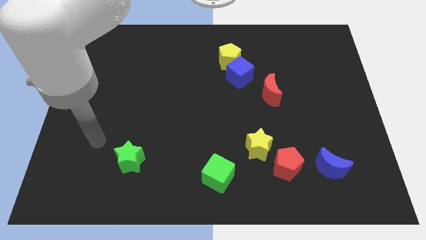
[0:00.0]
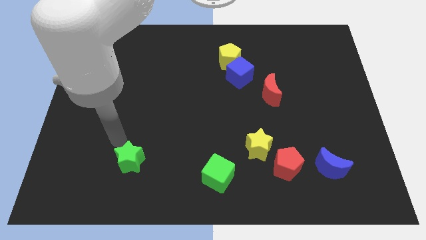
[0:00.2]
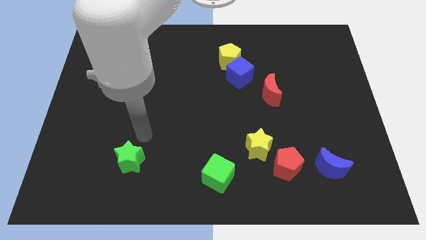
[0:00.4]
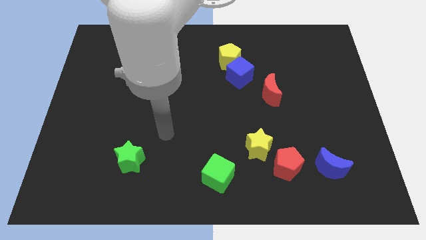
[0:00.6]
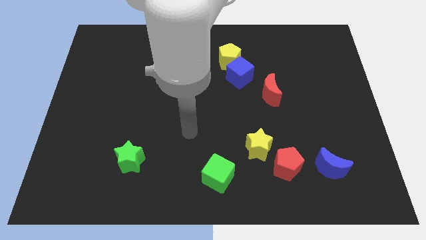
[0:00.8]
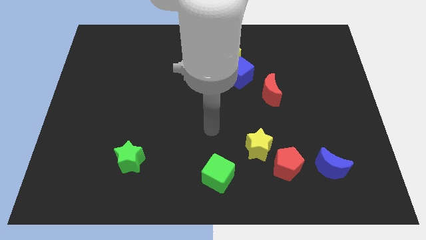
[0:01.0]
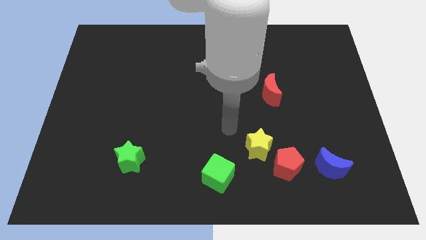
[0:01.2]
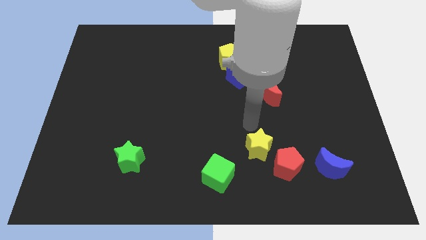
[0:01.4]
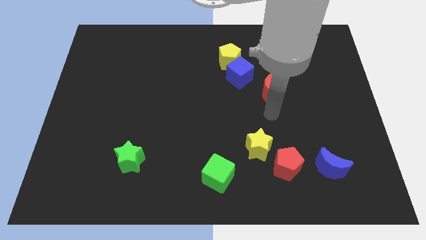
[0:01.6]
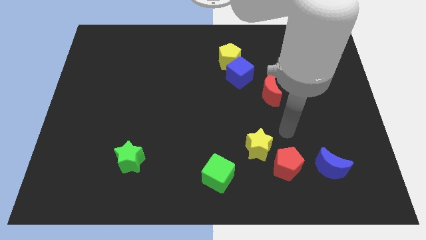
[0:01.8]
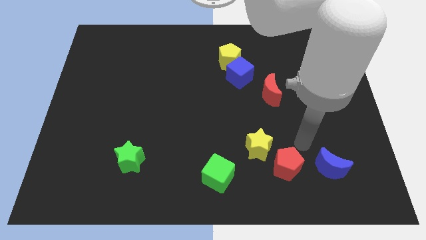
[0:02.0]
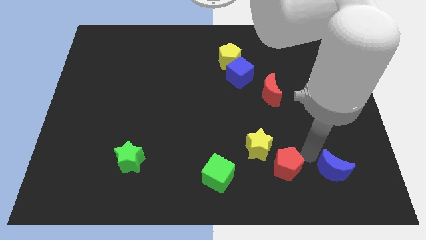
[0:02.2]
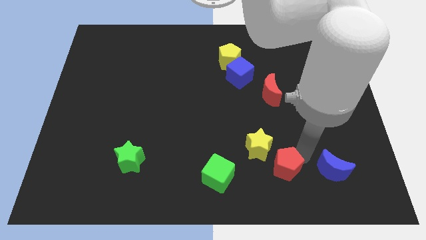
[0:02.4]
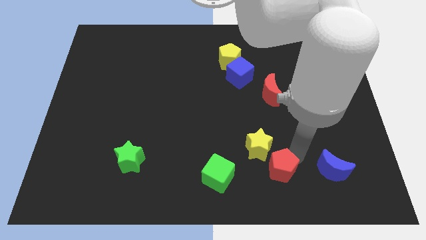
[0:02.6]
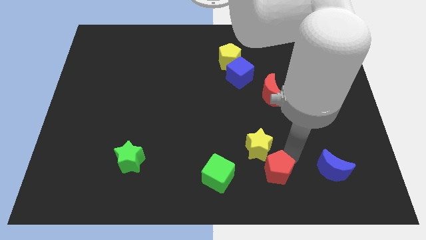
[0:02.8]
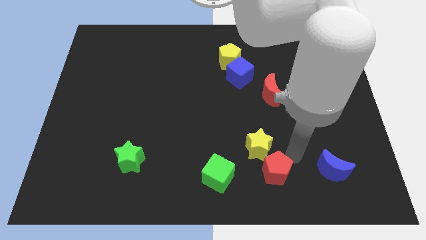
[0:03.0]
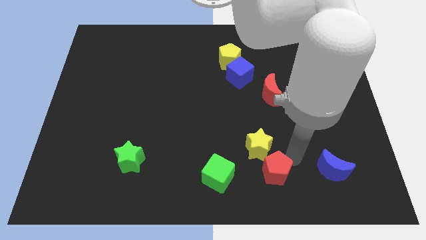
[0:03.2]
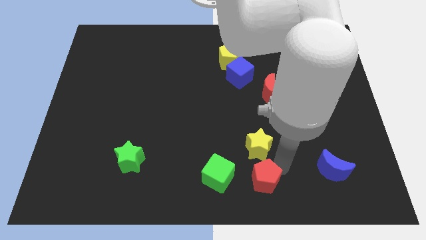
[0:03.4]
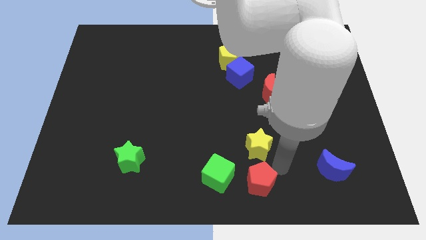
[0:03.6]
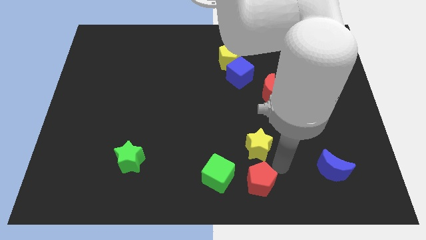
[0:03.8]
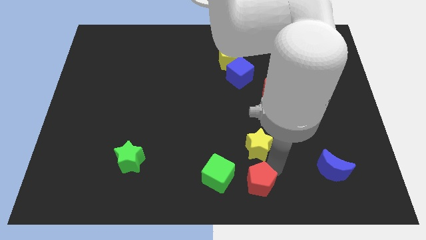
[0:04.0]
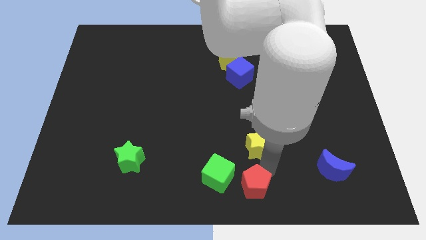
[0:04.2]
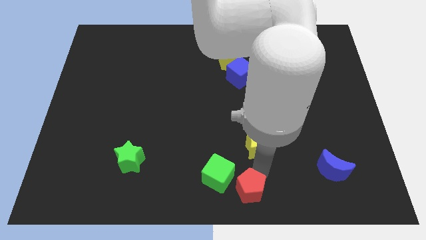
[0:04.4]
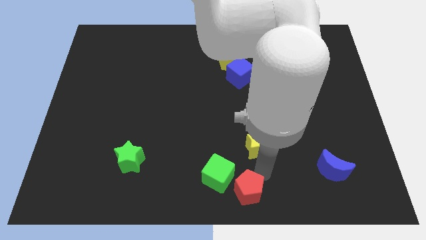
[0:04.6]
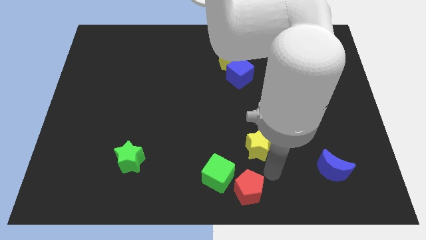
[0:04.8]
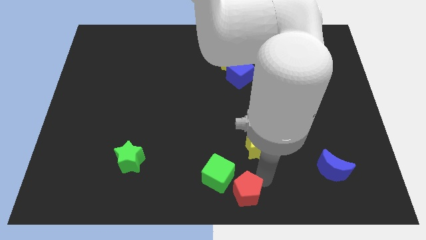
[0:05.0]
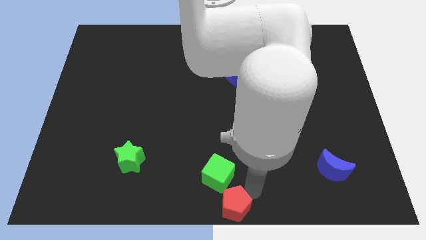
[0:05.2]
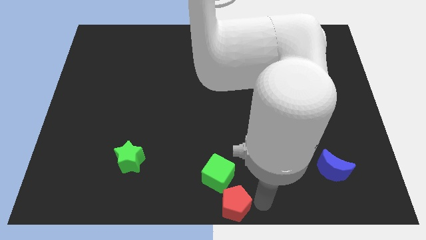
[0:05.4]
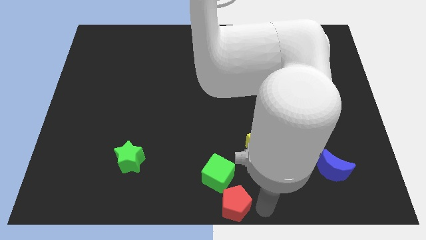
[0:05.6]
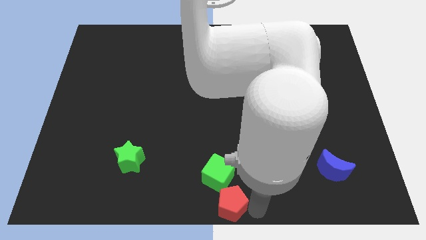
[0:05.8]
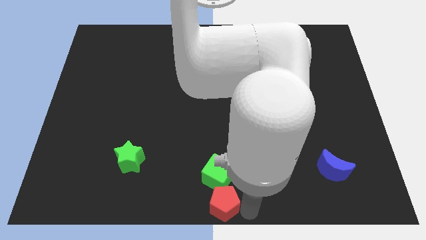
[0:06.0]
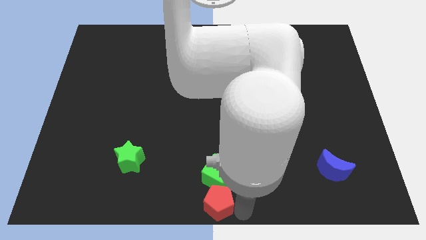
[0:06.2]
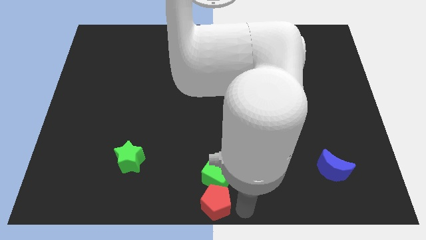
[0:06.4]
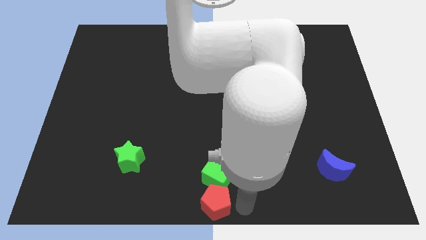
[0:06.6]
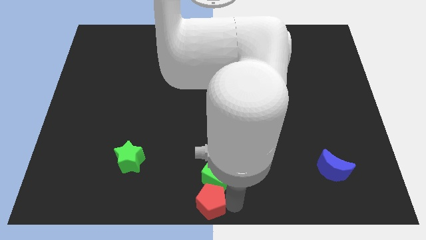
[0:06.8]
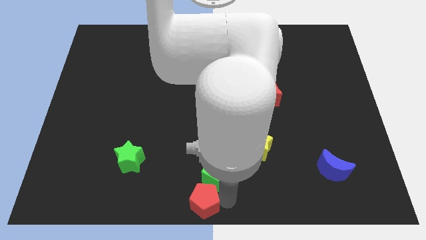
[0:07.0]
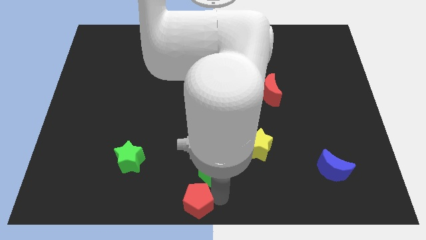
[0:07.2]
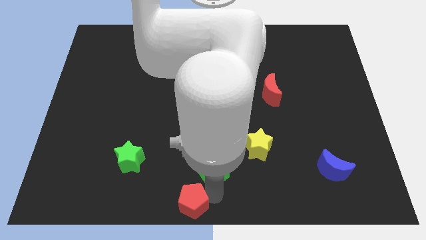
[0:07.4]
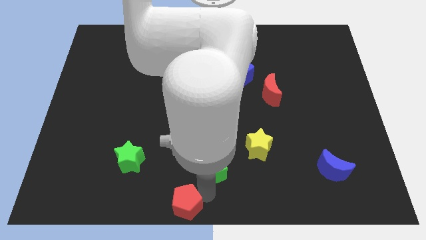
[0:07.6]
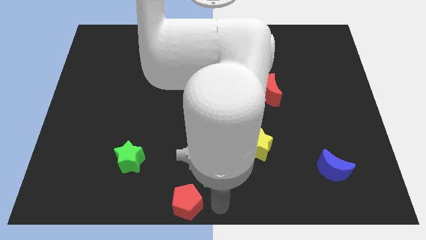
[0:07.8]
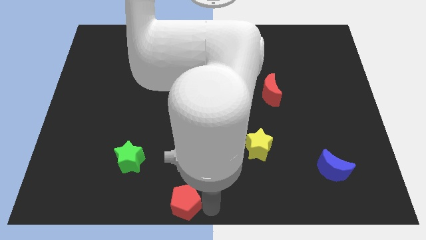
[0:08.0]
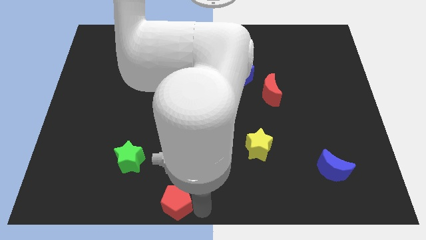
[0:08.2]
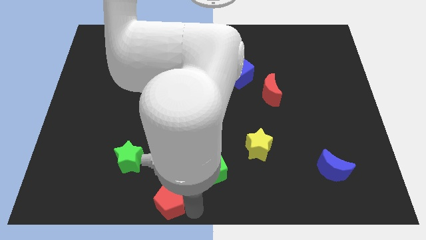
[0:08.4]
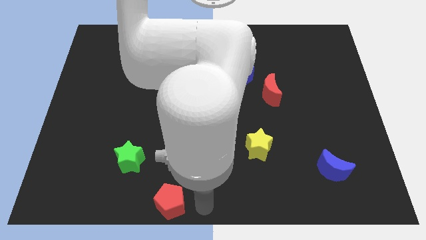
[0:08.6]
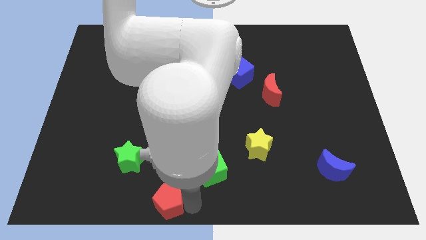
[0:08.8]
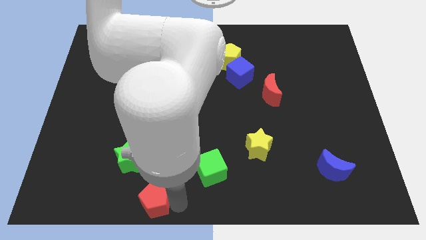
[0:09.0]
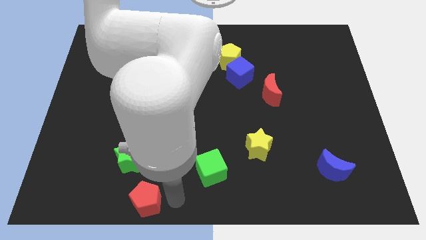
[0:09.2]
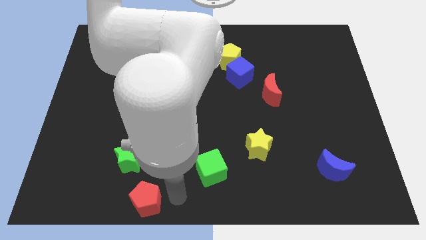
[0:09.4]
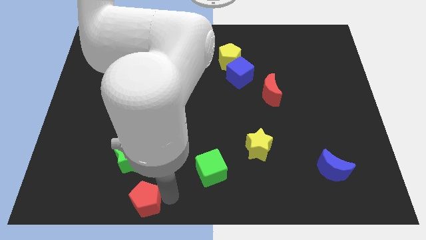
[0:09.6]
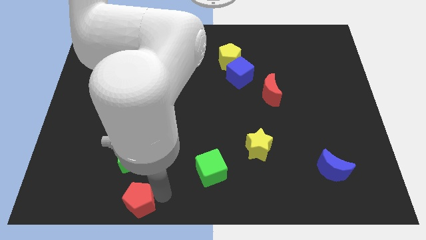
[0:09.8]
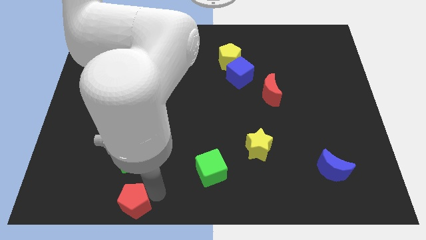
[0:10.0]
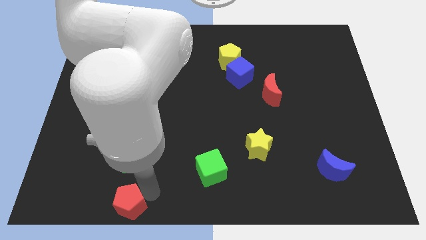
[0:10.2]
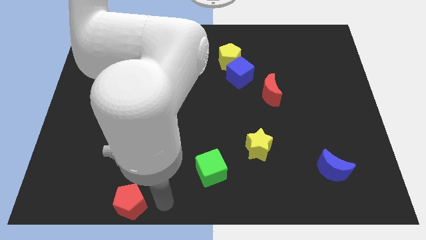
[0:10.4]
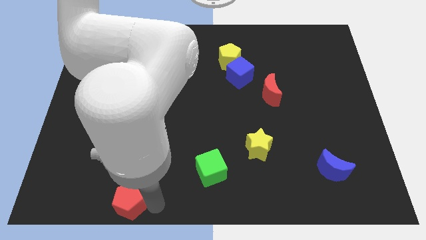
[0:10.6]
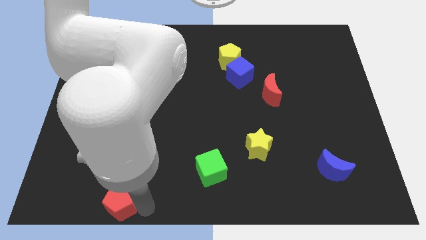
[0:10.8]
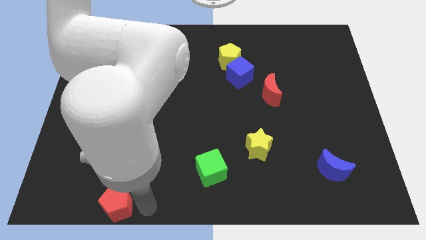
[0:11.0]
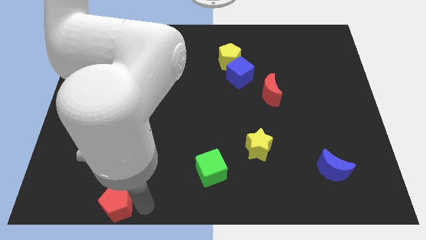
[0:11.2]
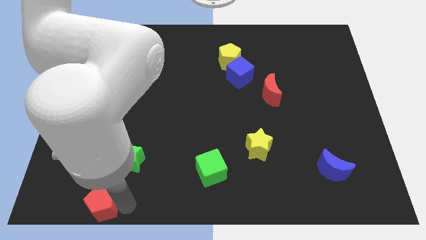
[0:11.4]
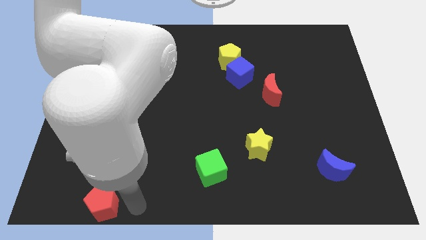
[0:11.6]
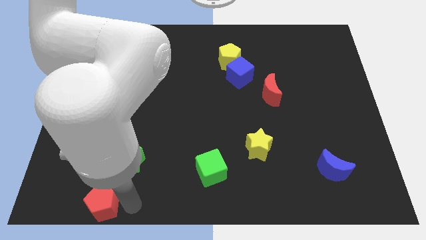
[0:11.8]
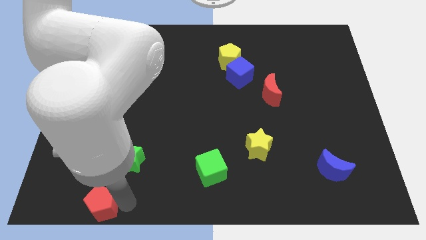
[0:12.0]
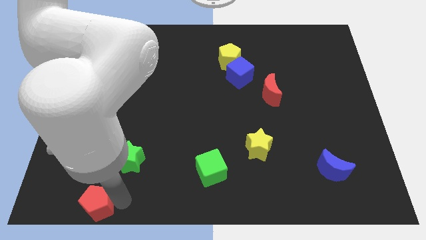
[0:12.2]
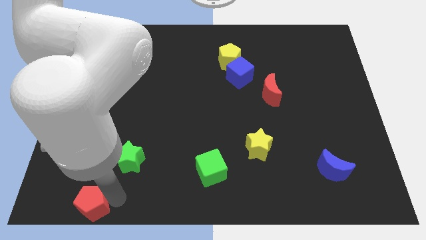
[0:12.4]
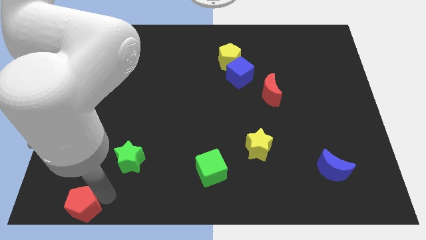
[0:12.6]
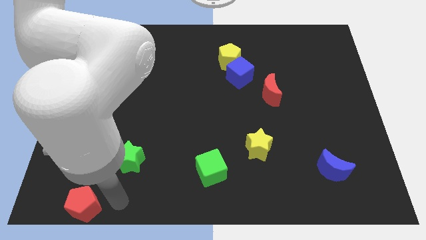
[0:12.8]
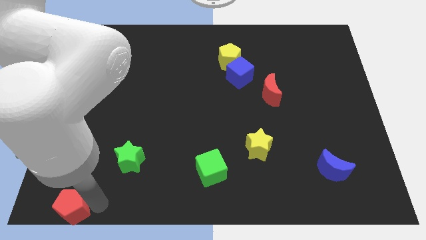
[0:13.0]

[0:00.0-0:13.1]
push the red pentagon to the bottom left of the board

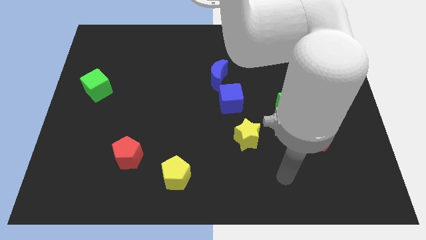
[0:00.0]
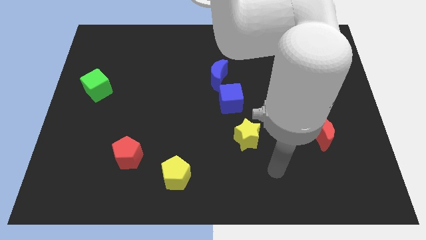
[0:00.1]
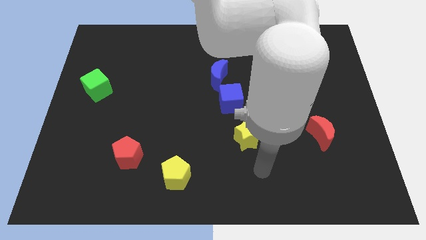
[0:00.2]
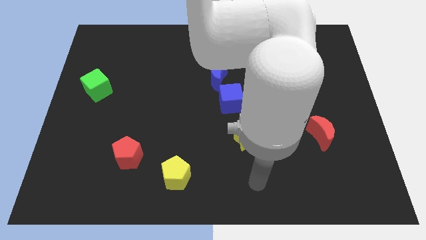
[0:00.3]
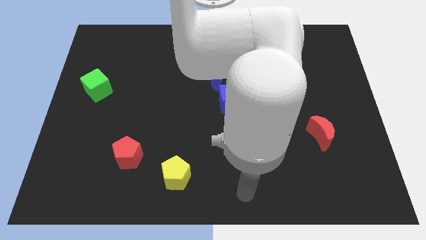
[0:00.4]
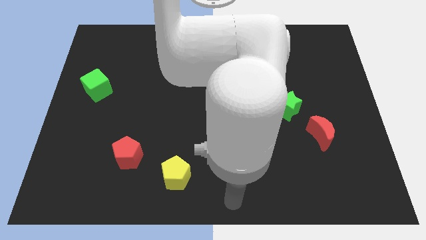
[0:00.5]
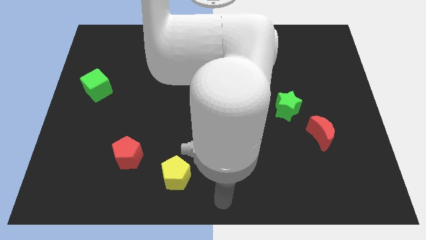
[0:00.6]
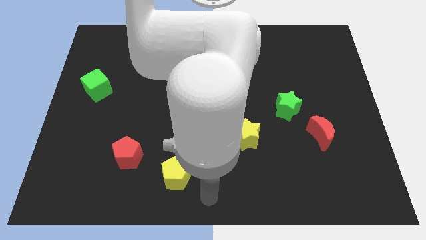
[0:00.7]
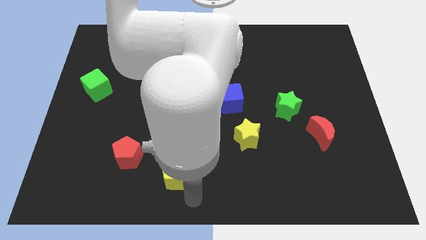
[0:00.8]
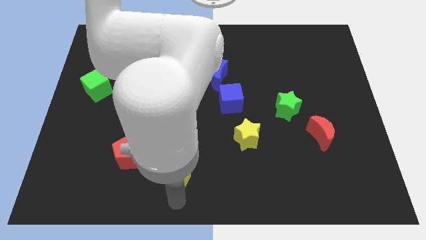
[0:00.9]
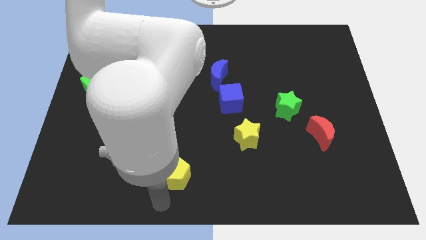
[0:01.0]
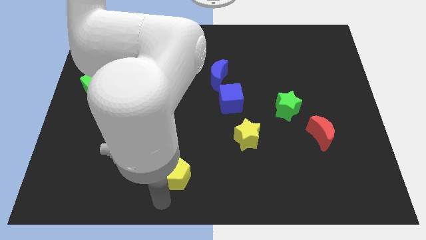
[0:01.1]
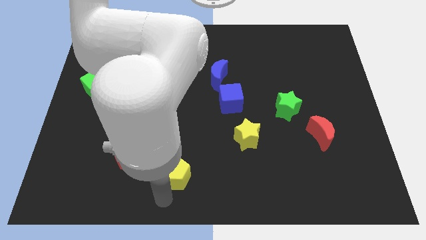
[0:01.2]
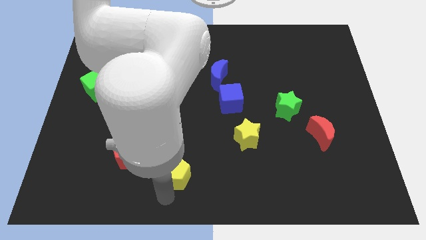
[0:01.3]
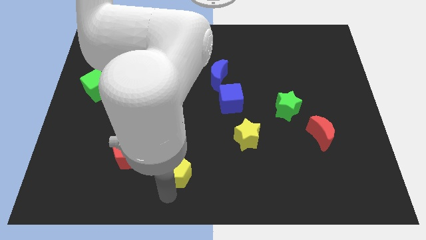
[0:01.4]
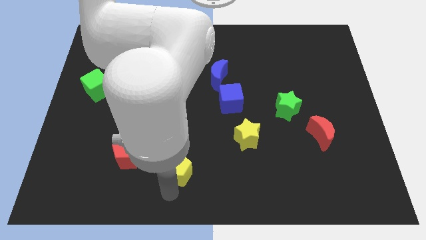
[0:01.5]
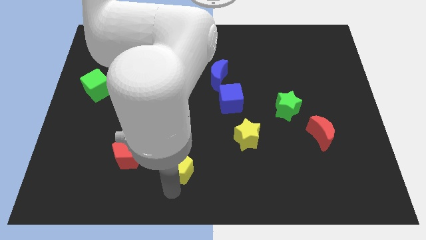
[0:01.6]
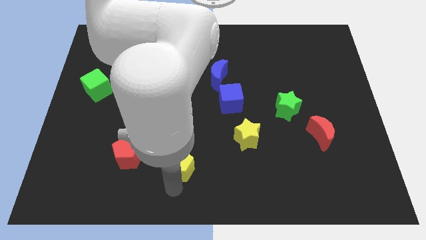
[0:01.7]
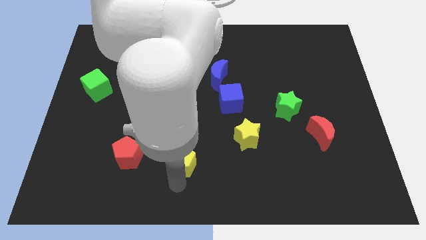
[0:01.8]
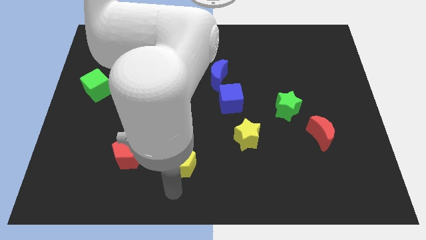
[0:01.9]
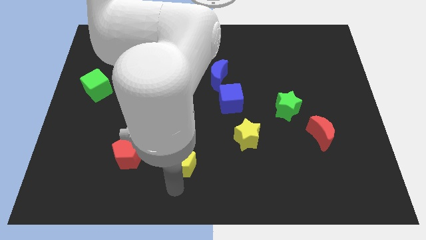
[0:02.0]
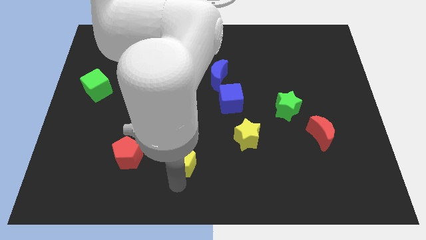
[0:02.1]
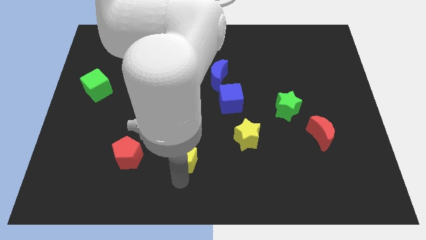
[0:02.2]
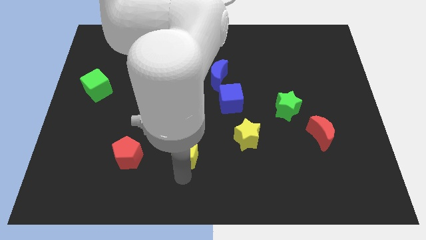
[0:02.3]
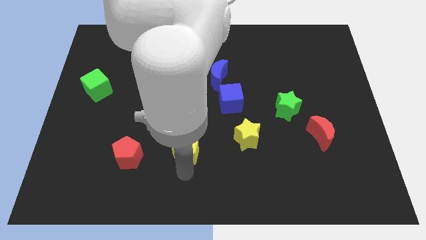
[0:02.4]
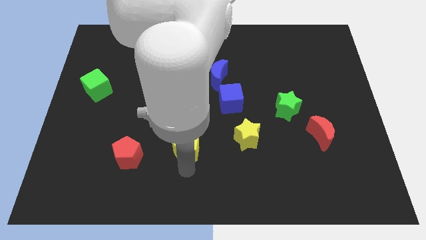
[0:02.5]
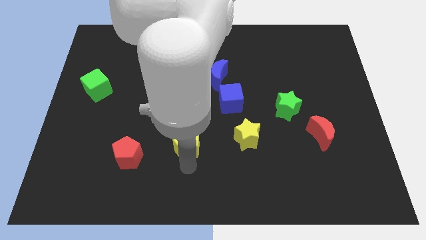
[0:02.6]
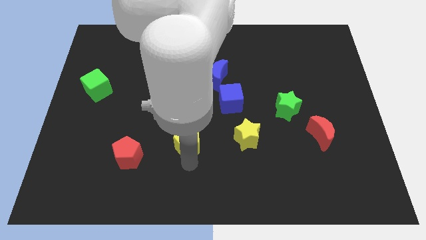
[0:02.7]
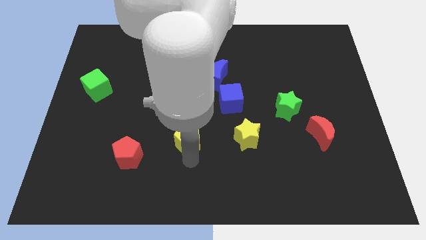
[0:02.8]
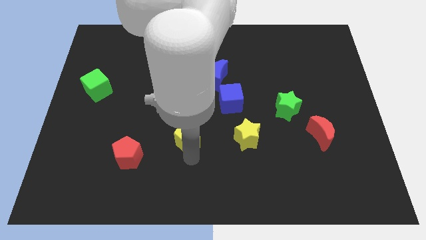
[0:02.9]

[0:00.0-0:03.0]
move the yellow pentagon to the center
